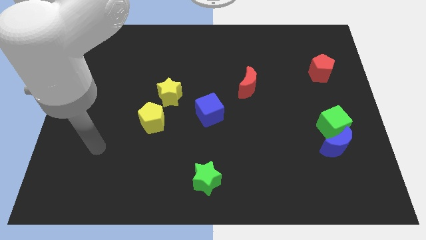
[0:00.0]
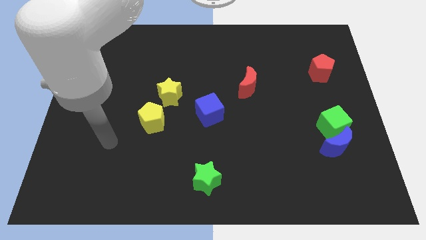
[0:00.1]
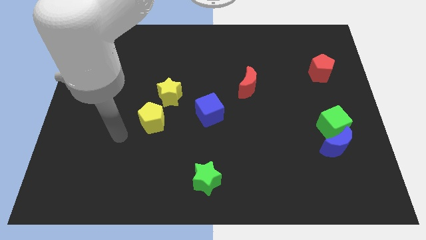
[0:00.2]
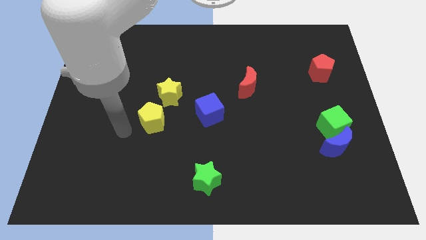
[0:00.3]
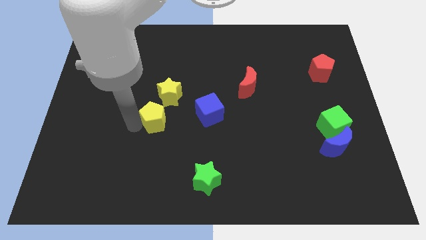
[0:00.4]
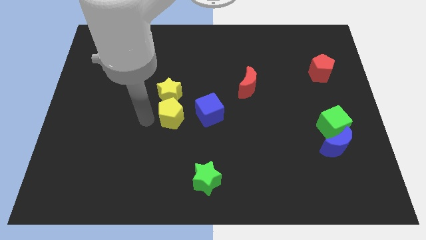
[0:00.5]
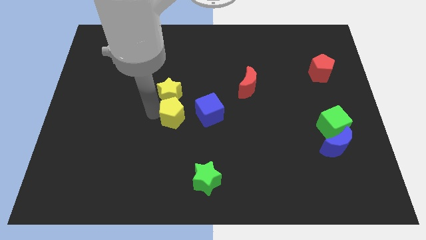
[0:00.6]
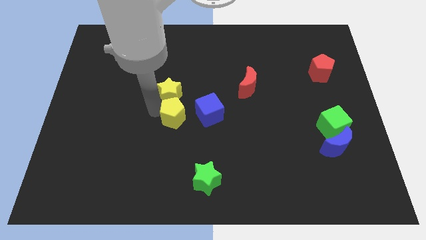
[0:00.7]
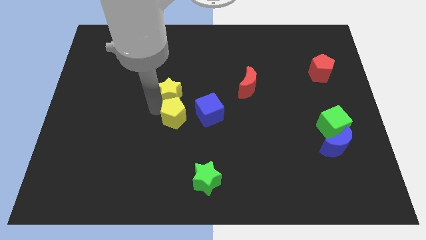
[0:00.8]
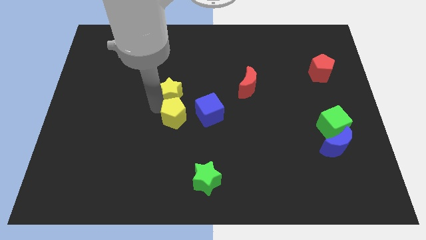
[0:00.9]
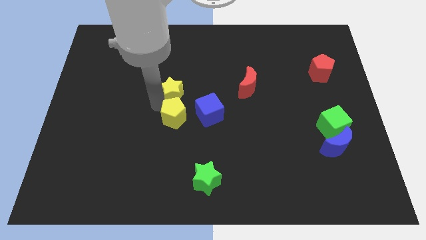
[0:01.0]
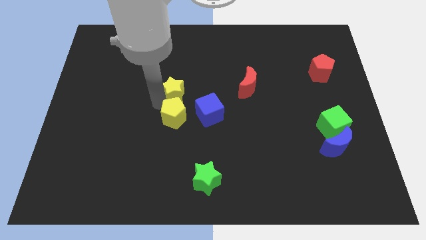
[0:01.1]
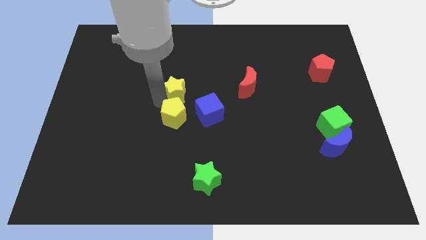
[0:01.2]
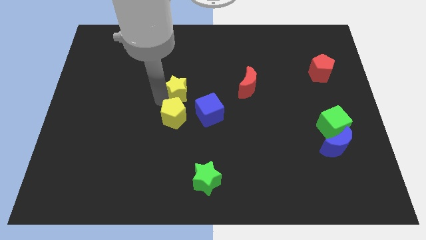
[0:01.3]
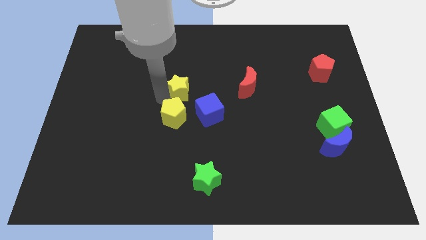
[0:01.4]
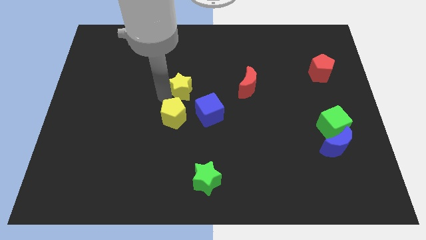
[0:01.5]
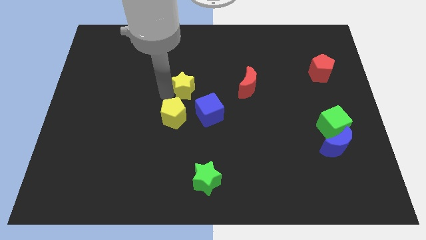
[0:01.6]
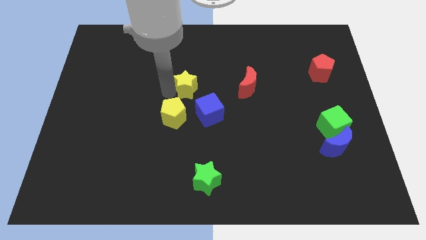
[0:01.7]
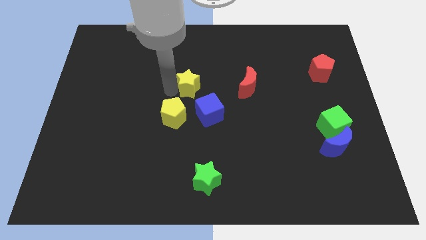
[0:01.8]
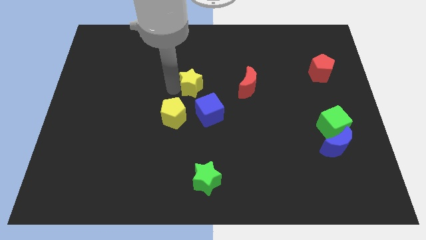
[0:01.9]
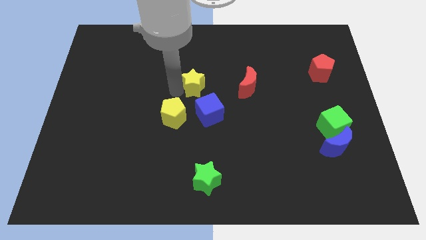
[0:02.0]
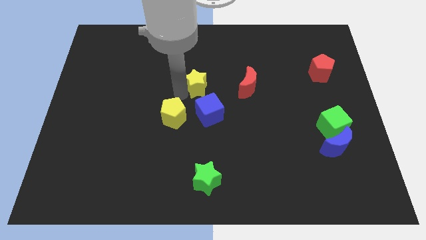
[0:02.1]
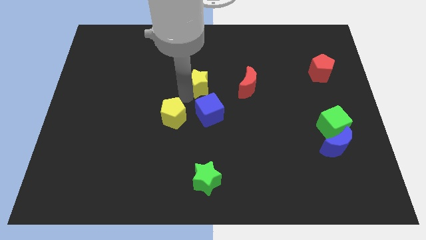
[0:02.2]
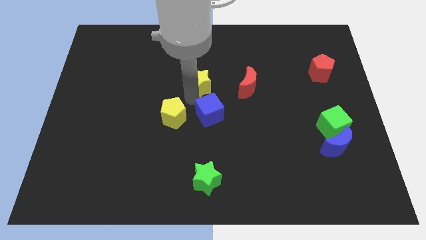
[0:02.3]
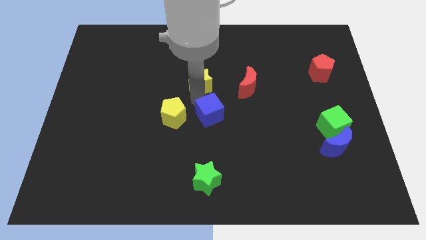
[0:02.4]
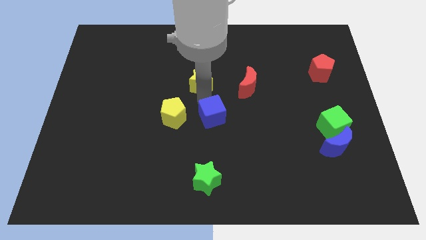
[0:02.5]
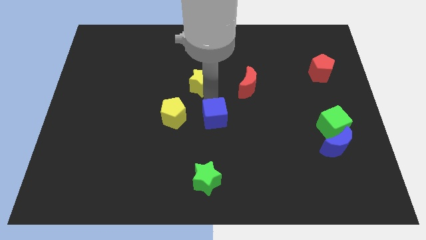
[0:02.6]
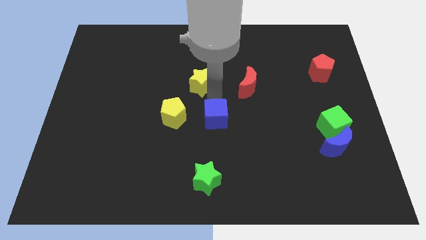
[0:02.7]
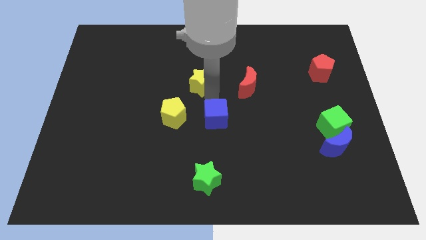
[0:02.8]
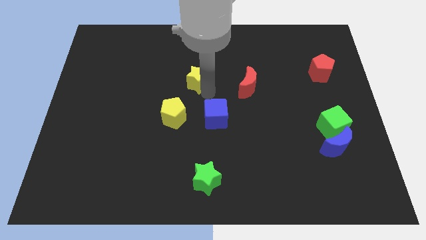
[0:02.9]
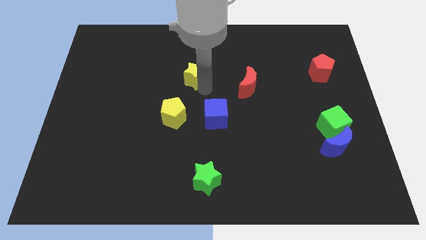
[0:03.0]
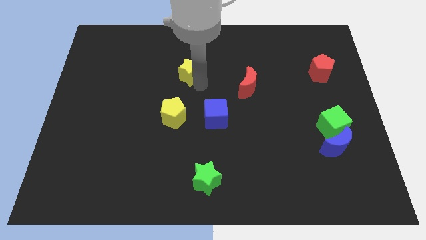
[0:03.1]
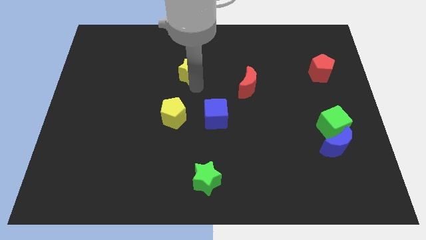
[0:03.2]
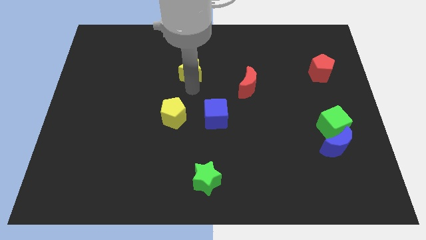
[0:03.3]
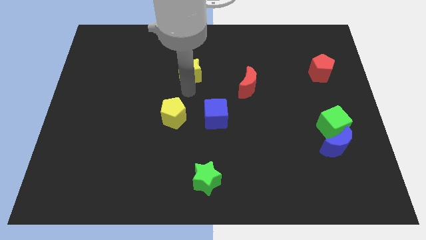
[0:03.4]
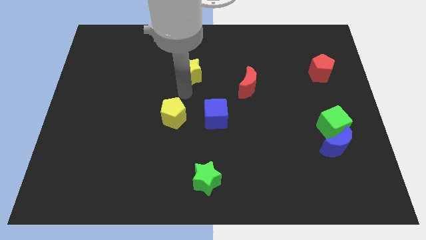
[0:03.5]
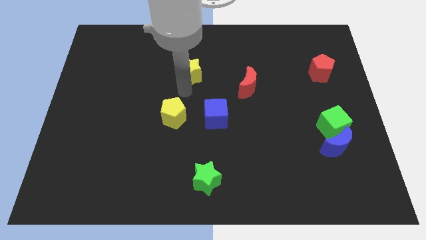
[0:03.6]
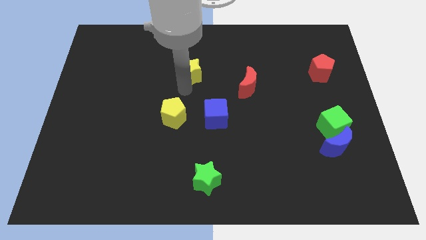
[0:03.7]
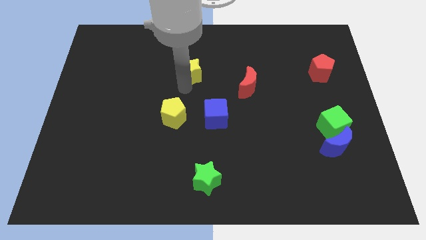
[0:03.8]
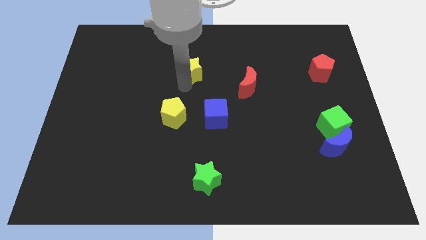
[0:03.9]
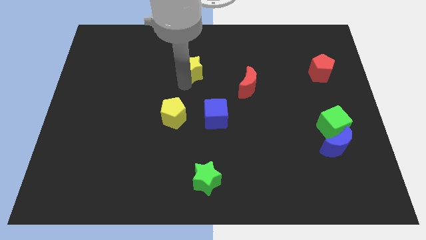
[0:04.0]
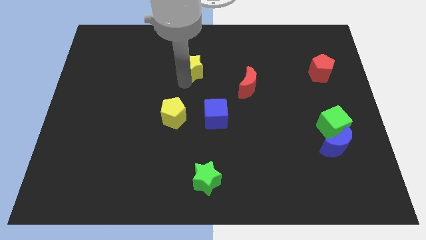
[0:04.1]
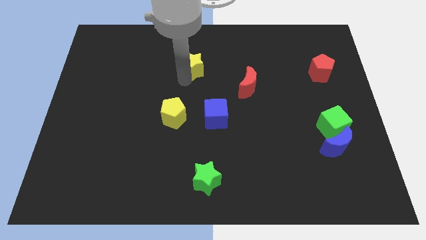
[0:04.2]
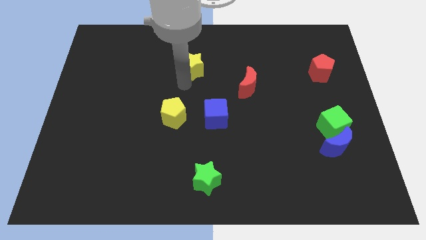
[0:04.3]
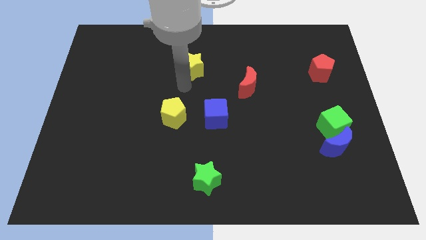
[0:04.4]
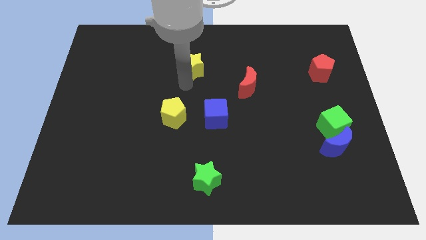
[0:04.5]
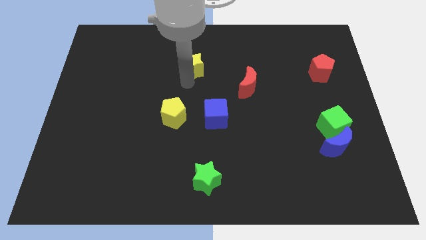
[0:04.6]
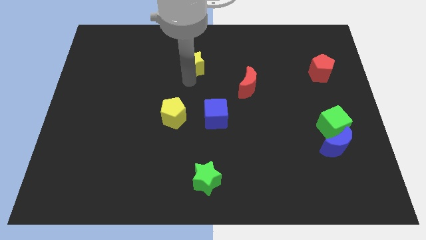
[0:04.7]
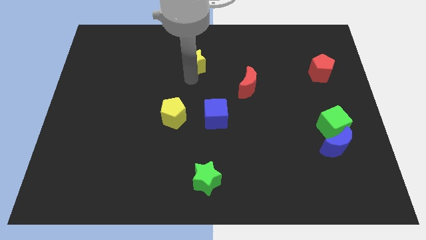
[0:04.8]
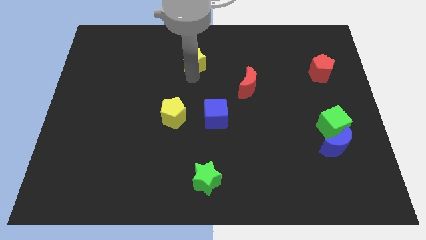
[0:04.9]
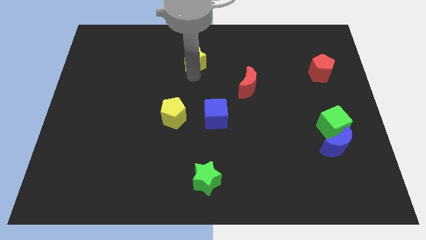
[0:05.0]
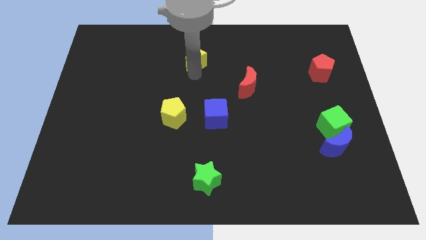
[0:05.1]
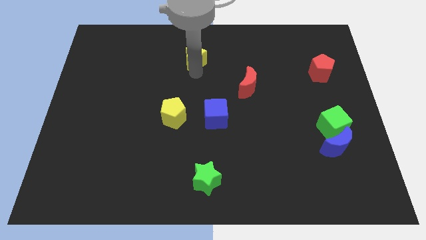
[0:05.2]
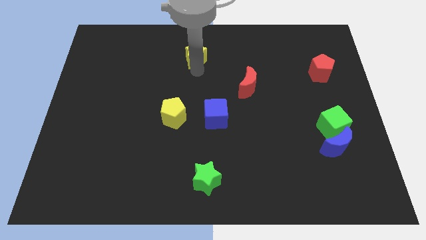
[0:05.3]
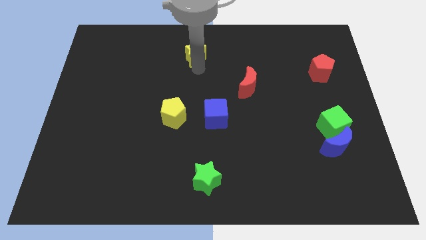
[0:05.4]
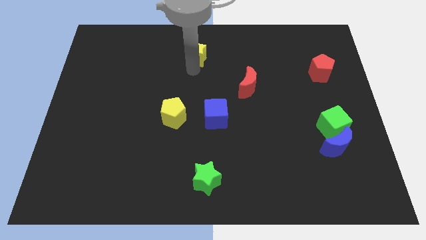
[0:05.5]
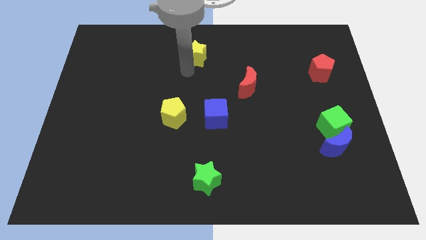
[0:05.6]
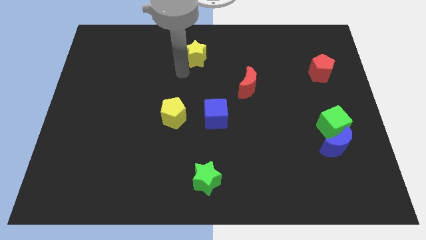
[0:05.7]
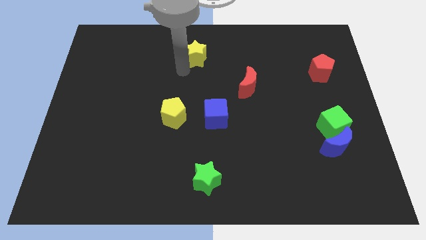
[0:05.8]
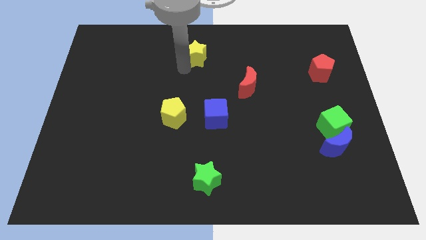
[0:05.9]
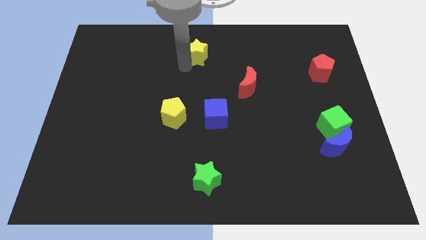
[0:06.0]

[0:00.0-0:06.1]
push the yellow star to the top
